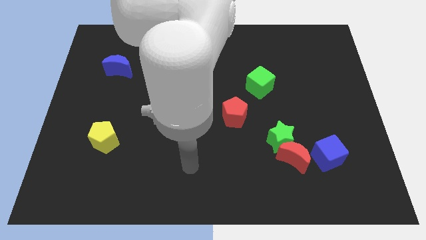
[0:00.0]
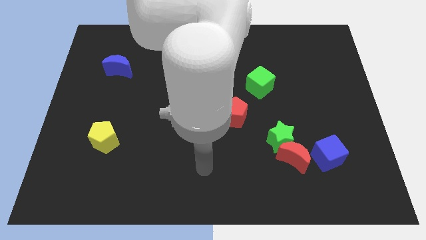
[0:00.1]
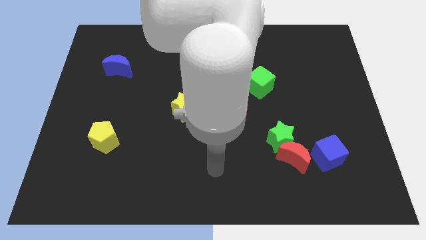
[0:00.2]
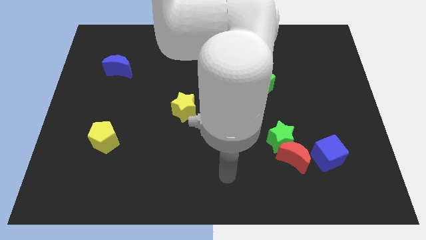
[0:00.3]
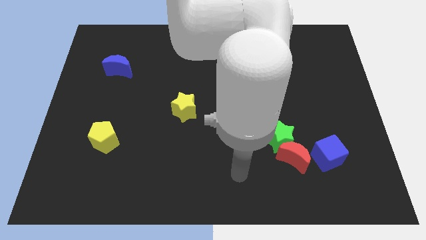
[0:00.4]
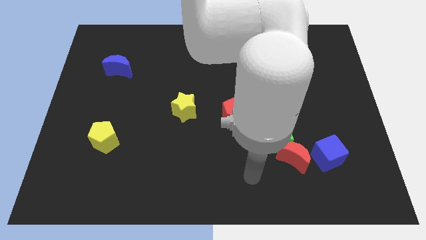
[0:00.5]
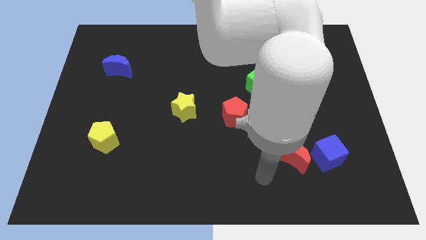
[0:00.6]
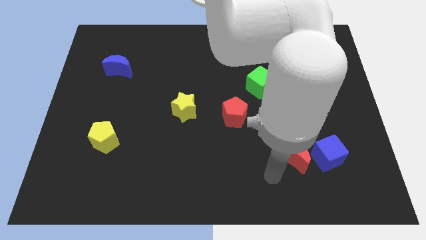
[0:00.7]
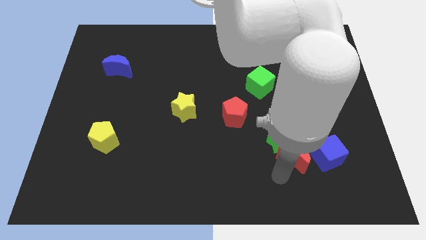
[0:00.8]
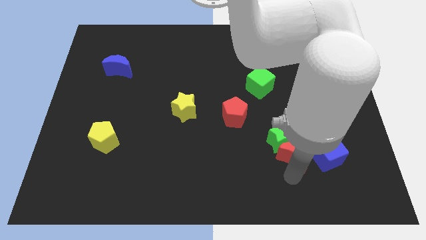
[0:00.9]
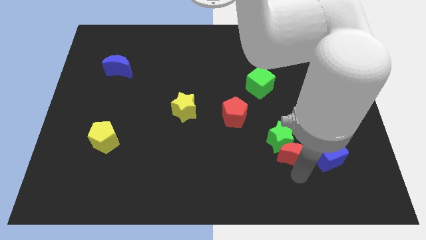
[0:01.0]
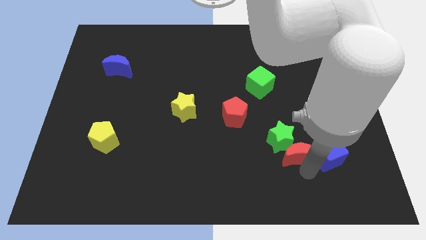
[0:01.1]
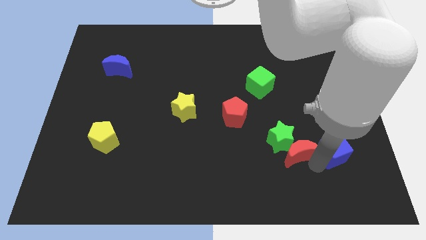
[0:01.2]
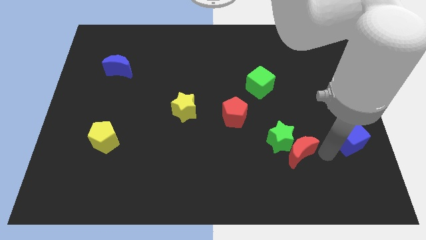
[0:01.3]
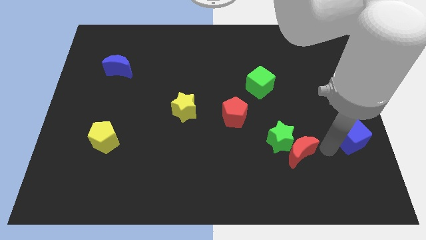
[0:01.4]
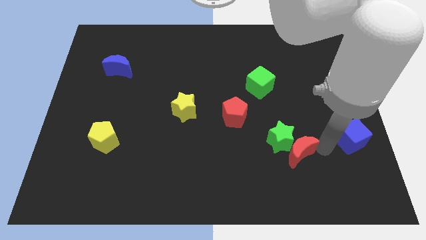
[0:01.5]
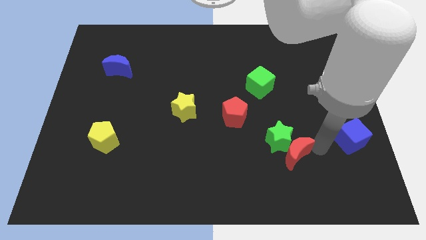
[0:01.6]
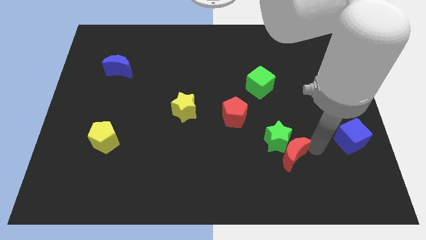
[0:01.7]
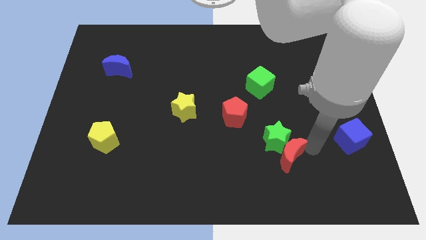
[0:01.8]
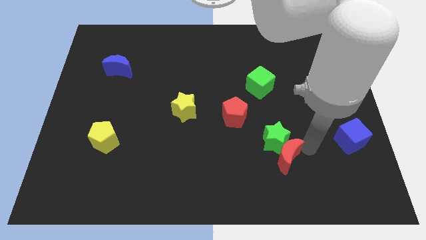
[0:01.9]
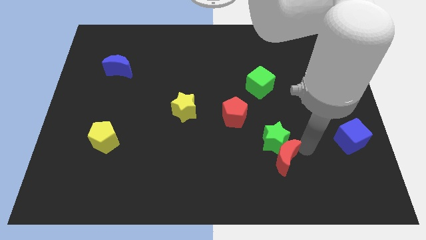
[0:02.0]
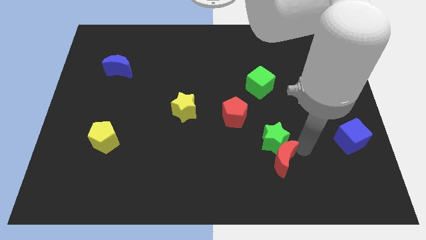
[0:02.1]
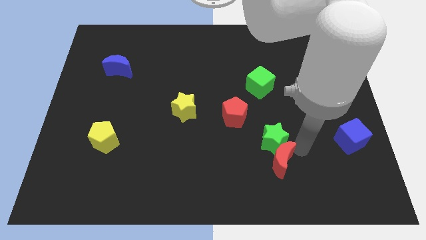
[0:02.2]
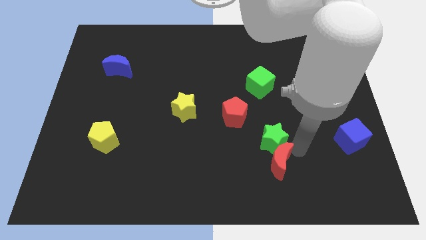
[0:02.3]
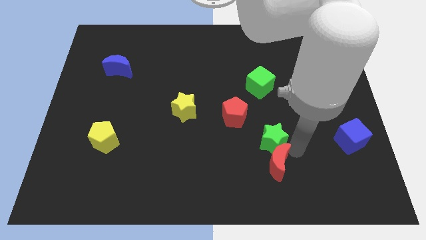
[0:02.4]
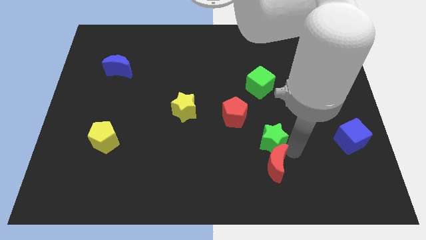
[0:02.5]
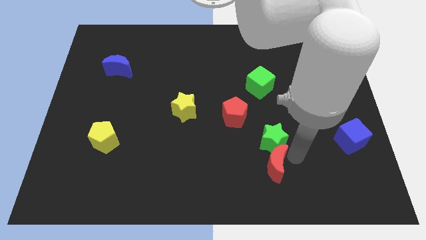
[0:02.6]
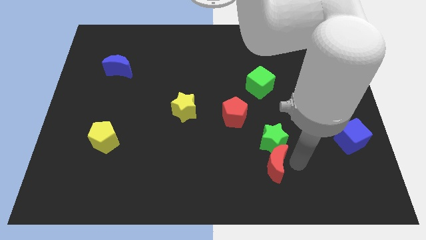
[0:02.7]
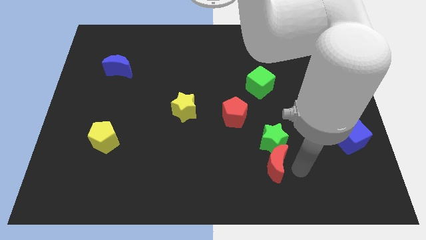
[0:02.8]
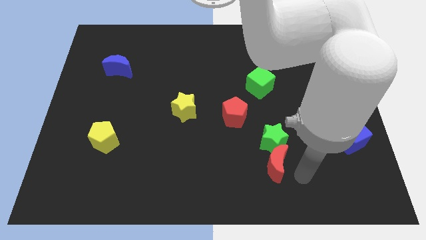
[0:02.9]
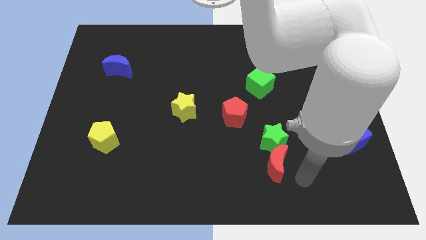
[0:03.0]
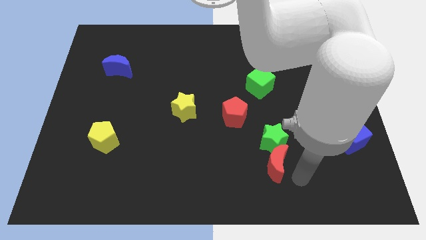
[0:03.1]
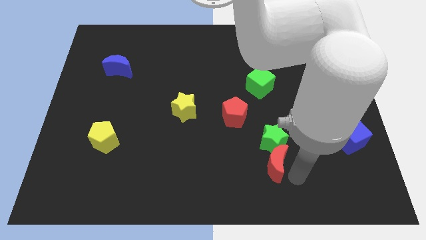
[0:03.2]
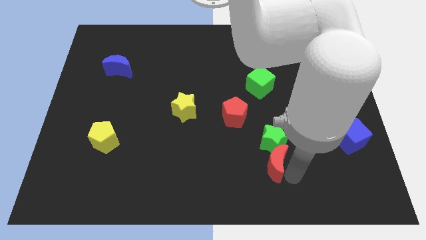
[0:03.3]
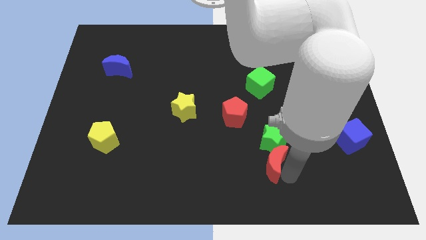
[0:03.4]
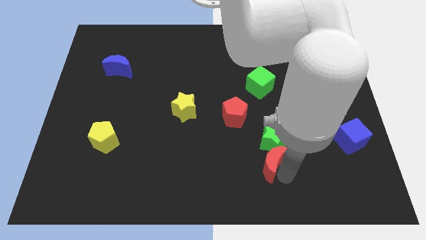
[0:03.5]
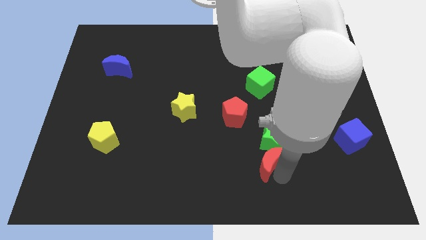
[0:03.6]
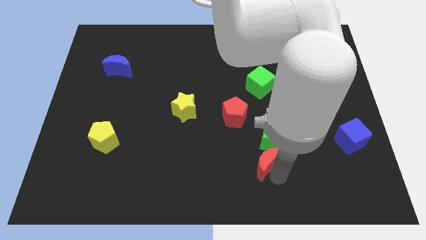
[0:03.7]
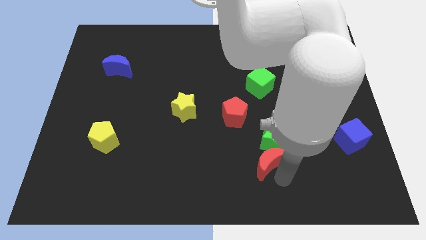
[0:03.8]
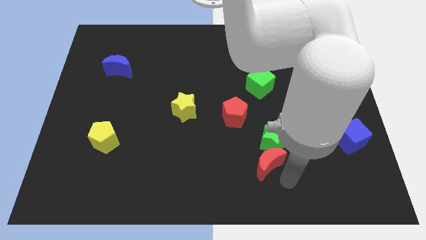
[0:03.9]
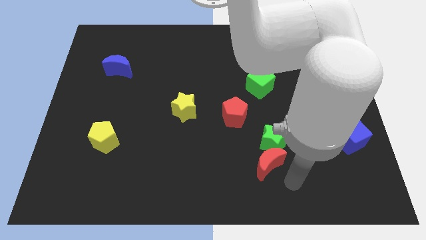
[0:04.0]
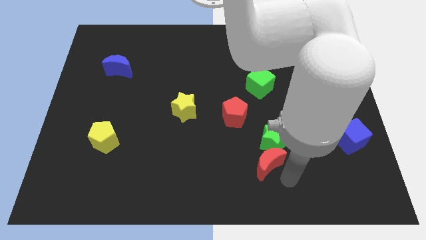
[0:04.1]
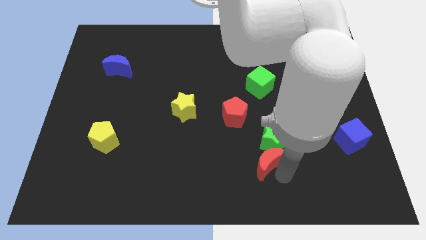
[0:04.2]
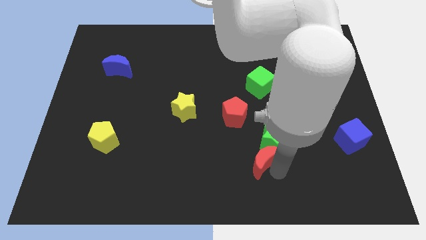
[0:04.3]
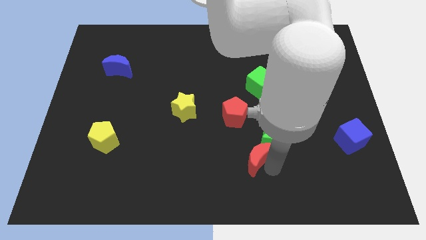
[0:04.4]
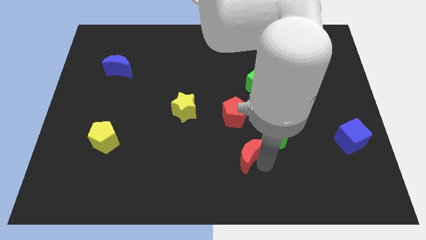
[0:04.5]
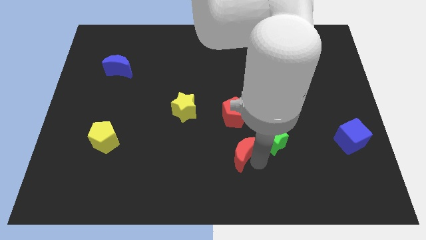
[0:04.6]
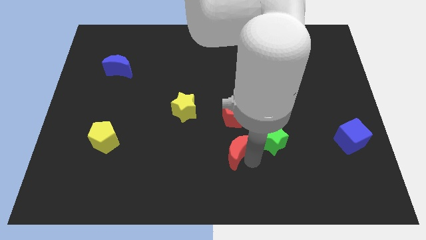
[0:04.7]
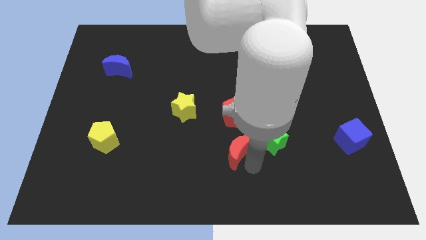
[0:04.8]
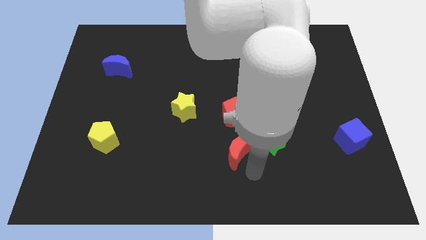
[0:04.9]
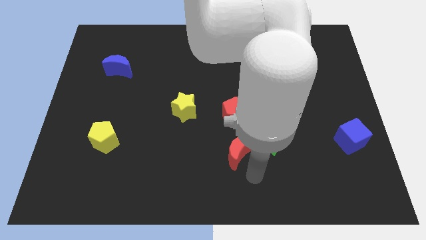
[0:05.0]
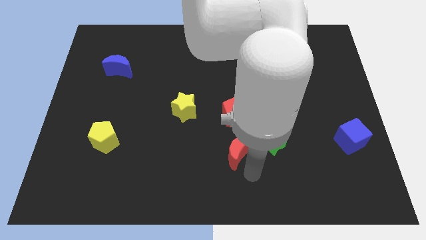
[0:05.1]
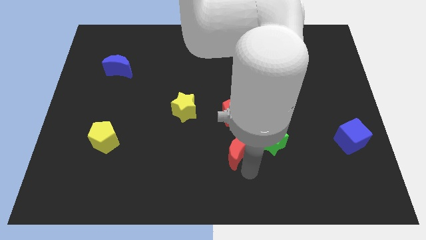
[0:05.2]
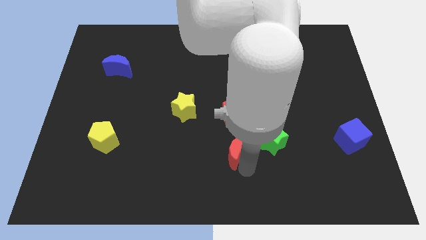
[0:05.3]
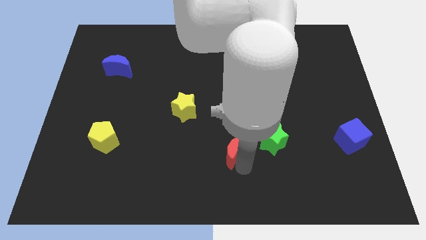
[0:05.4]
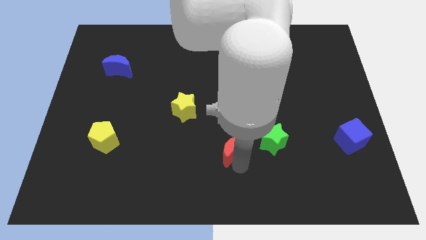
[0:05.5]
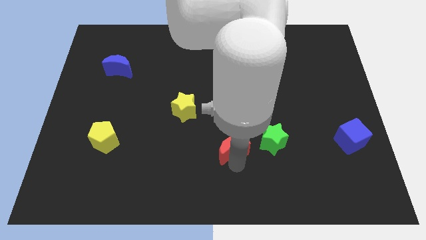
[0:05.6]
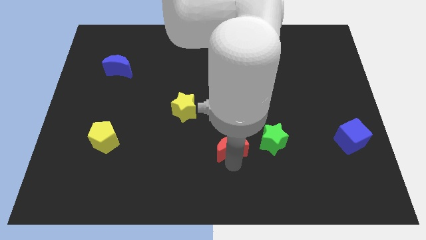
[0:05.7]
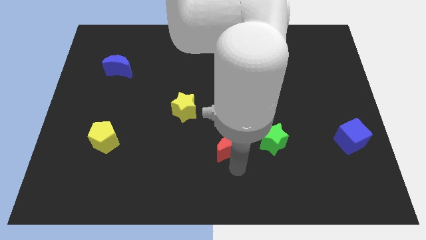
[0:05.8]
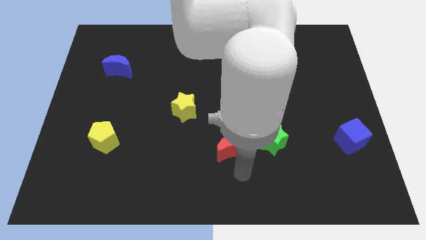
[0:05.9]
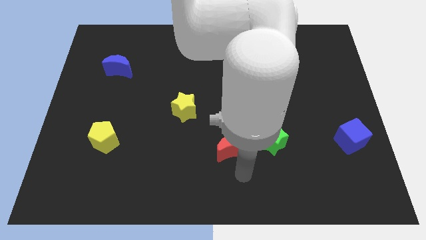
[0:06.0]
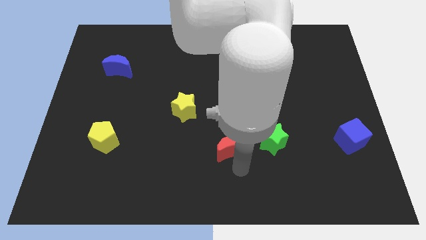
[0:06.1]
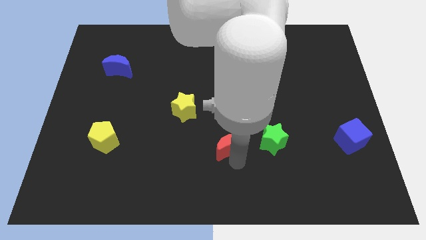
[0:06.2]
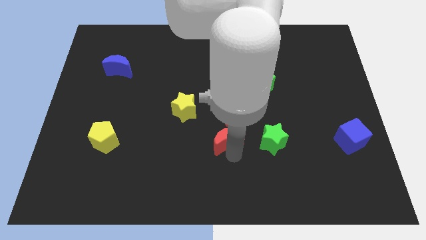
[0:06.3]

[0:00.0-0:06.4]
push the red moon to the middle of the board
